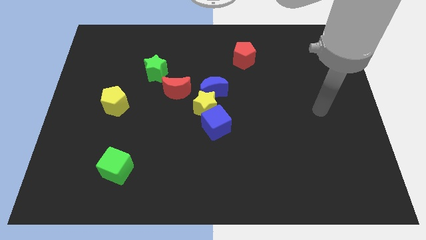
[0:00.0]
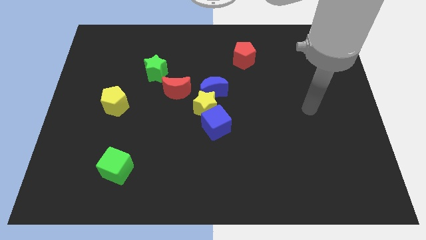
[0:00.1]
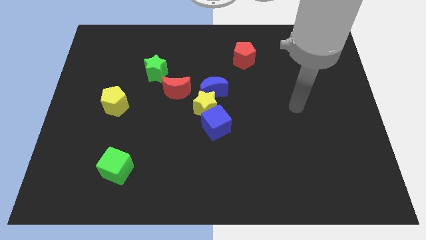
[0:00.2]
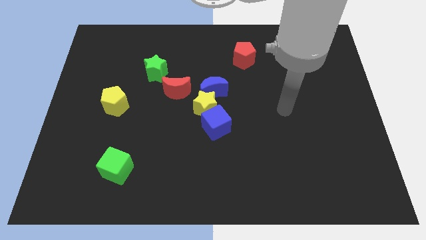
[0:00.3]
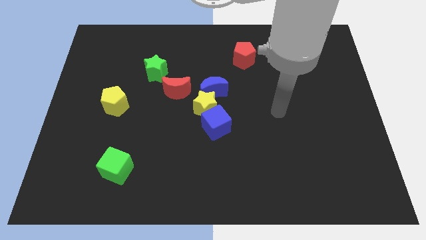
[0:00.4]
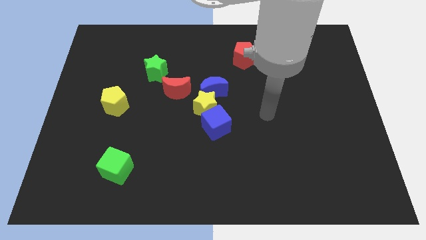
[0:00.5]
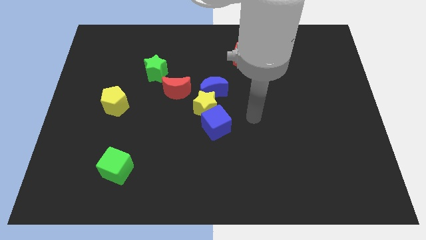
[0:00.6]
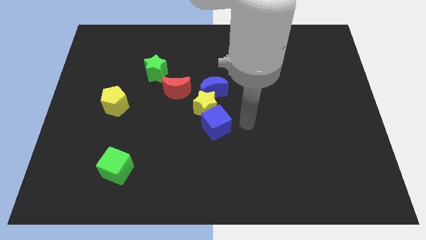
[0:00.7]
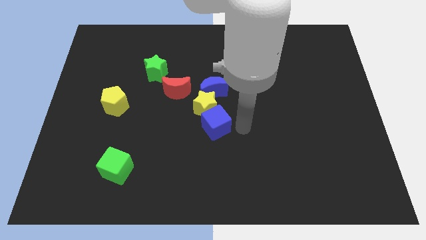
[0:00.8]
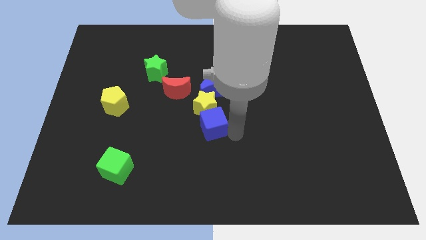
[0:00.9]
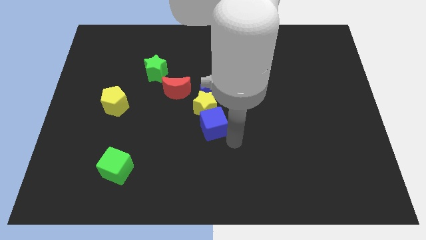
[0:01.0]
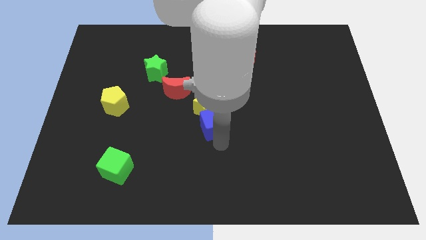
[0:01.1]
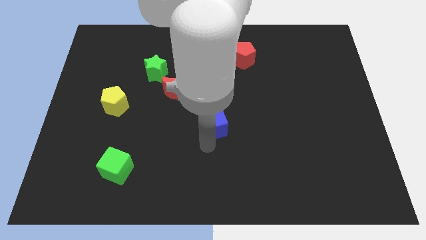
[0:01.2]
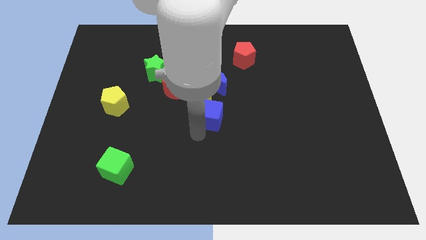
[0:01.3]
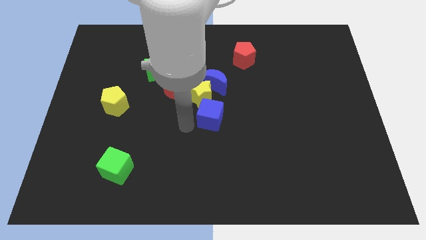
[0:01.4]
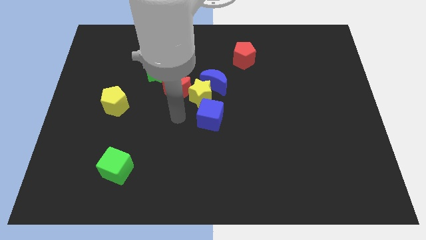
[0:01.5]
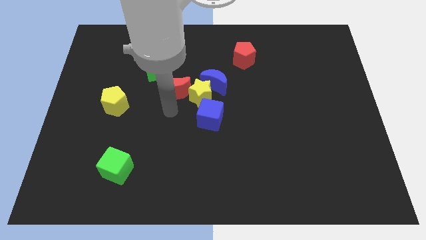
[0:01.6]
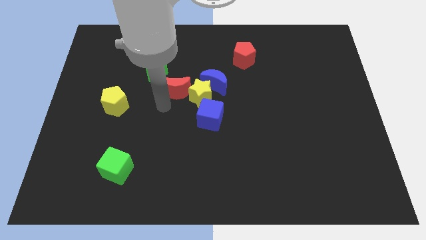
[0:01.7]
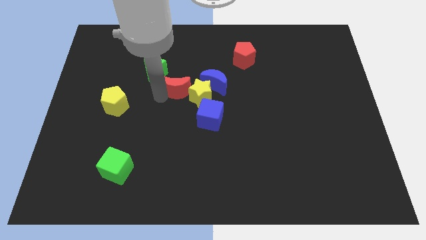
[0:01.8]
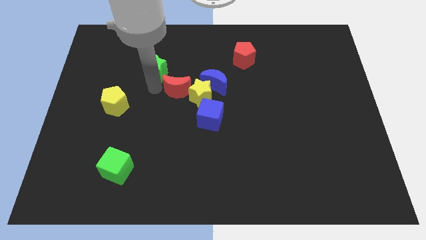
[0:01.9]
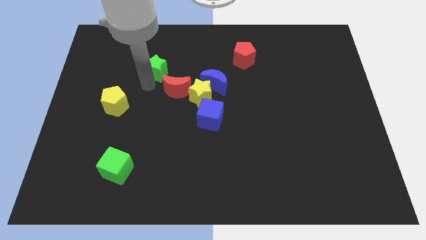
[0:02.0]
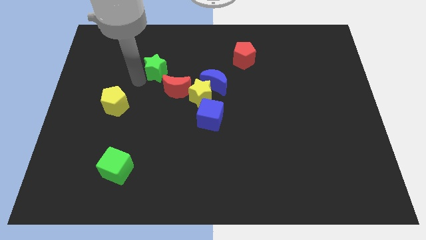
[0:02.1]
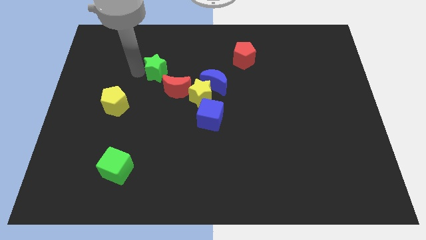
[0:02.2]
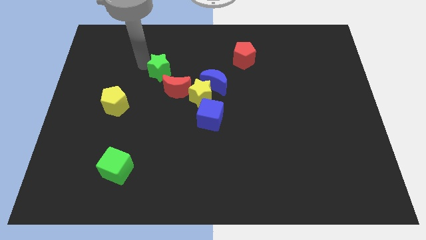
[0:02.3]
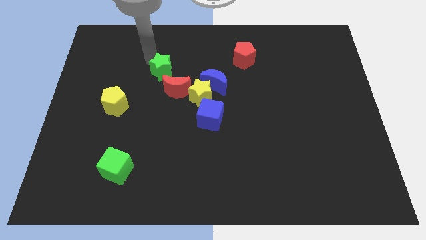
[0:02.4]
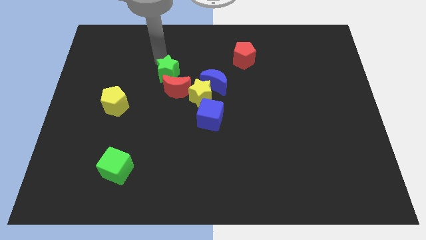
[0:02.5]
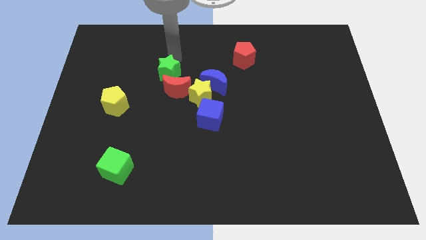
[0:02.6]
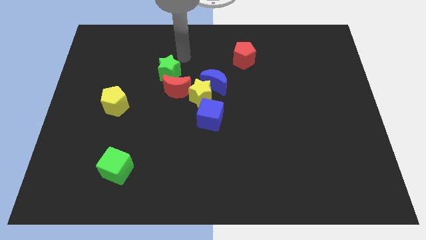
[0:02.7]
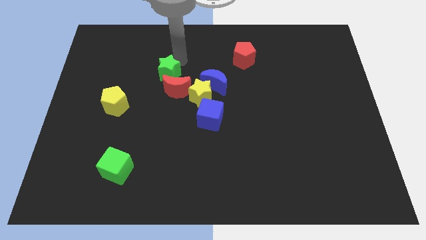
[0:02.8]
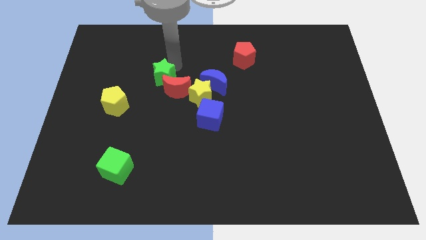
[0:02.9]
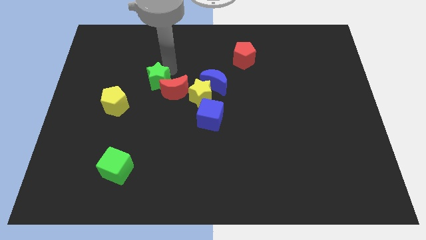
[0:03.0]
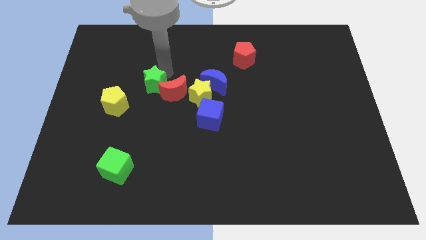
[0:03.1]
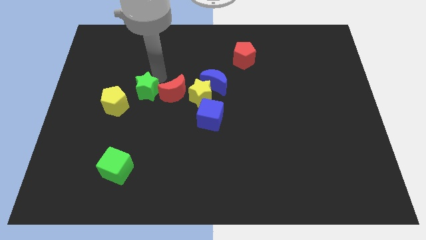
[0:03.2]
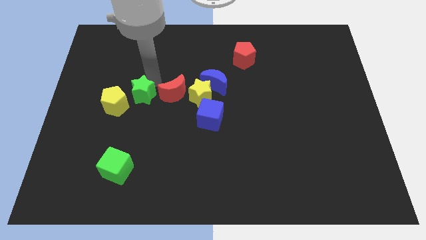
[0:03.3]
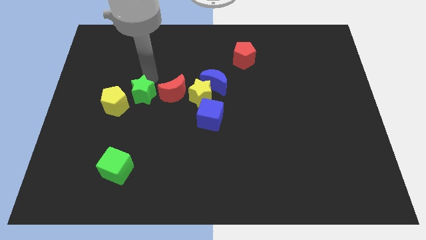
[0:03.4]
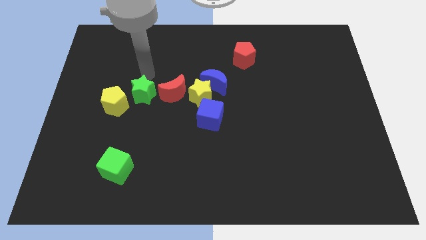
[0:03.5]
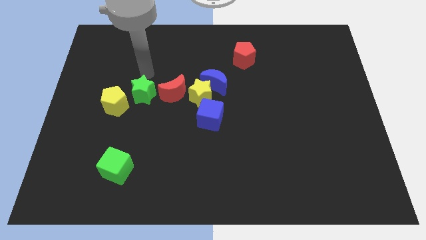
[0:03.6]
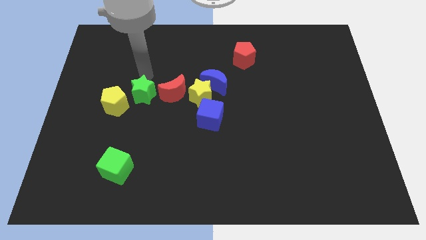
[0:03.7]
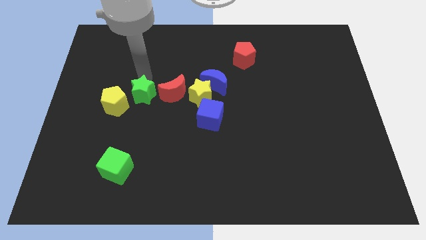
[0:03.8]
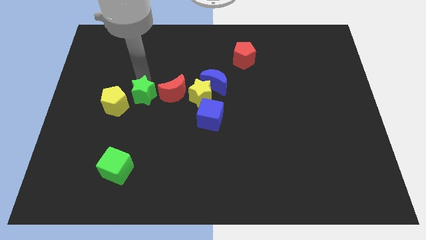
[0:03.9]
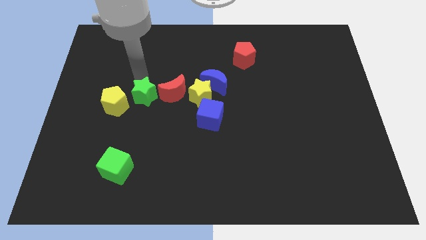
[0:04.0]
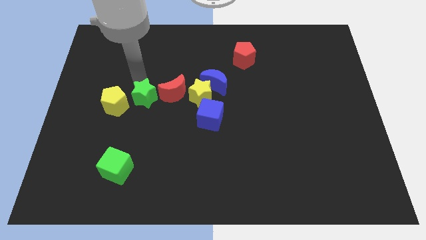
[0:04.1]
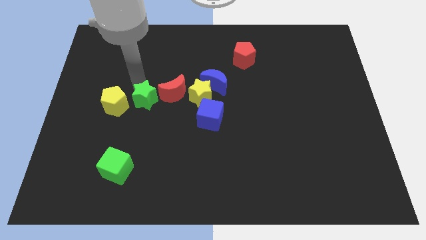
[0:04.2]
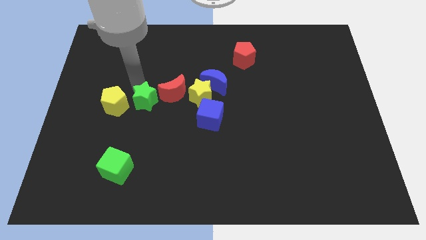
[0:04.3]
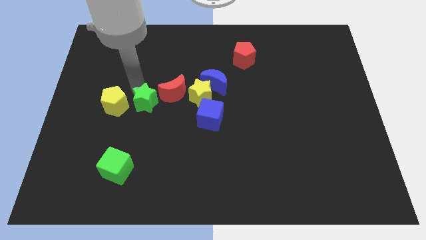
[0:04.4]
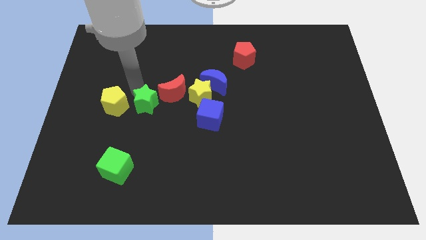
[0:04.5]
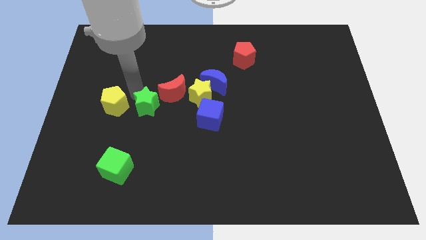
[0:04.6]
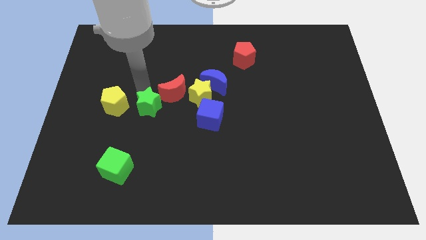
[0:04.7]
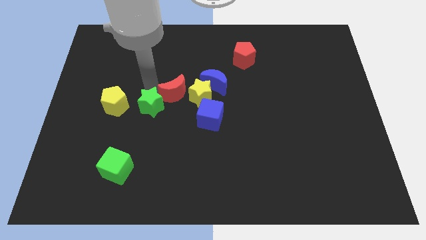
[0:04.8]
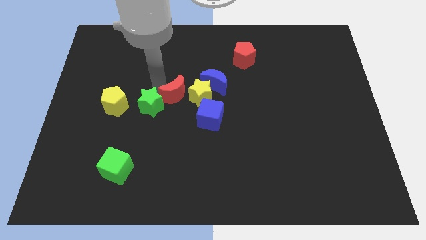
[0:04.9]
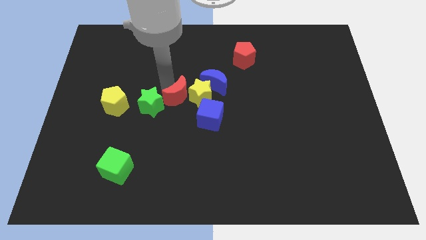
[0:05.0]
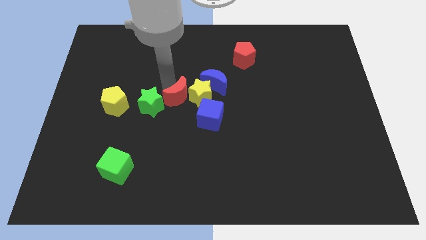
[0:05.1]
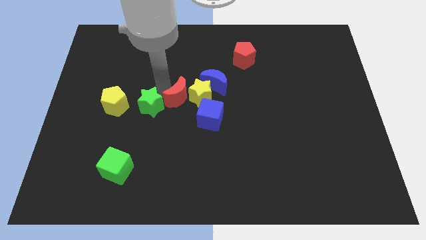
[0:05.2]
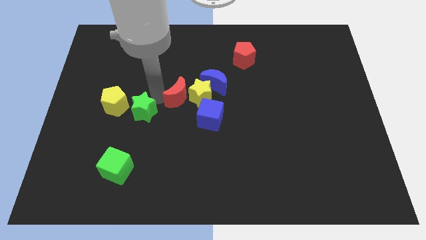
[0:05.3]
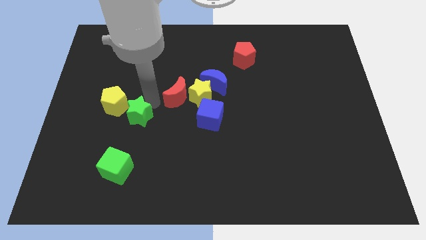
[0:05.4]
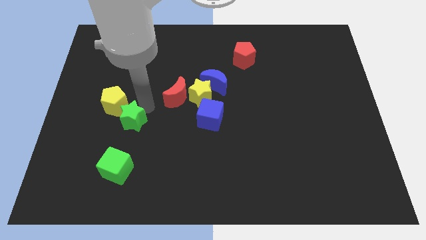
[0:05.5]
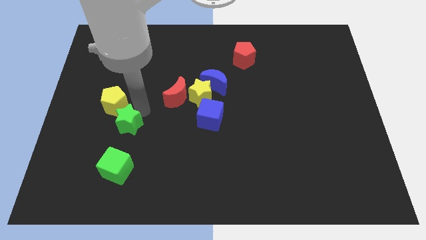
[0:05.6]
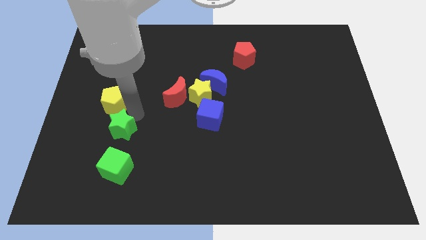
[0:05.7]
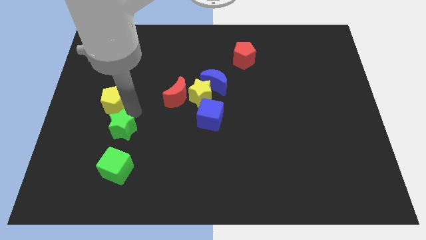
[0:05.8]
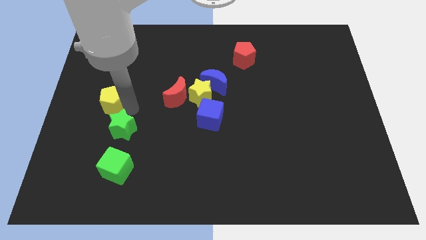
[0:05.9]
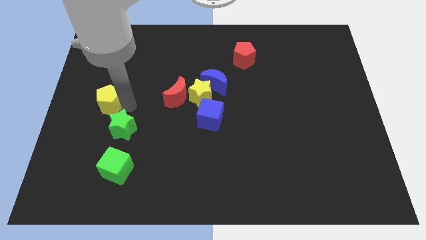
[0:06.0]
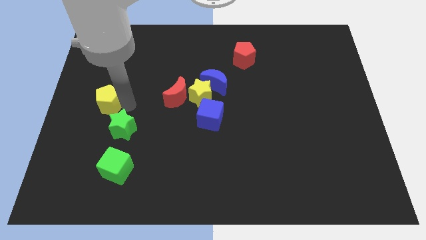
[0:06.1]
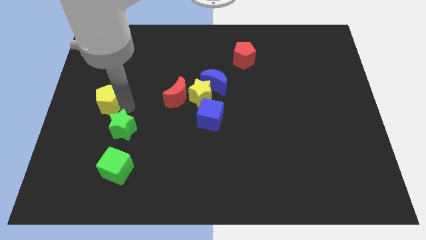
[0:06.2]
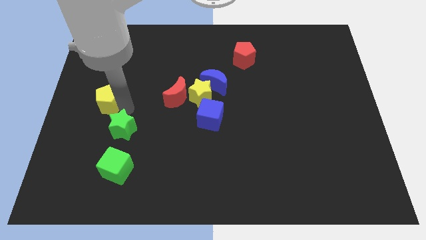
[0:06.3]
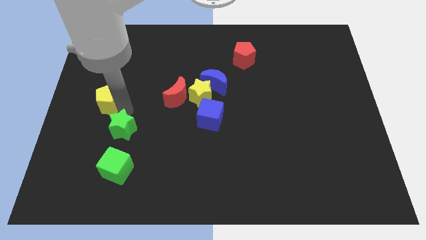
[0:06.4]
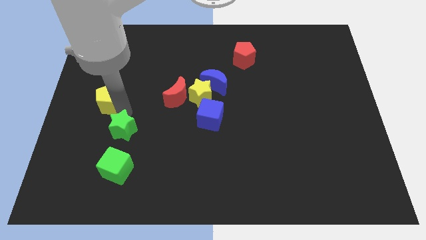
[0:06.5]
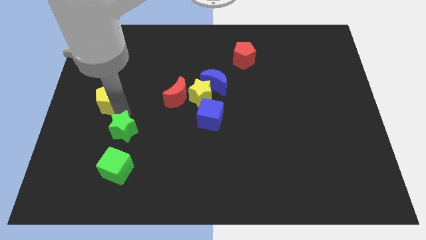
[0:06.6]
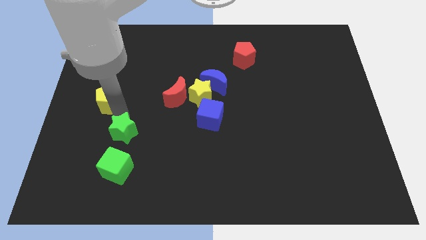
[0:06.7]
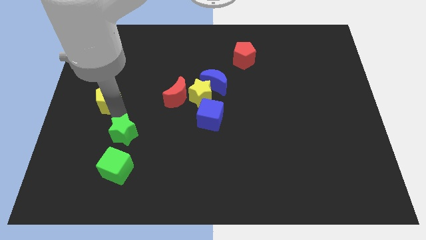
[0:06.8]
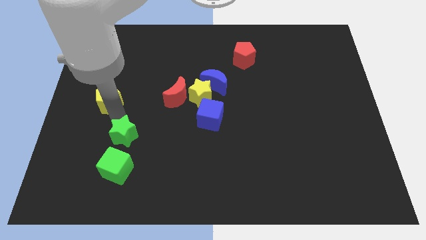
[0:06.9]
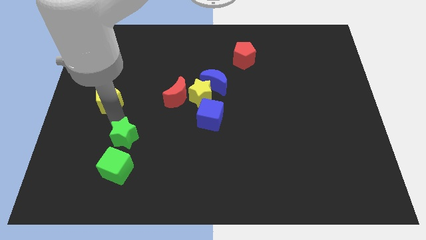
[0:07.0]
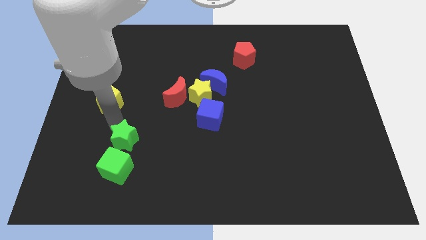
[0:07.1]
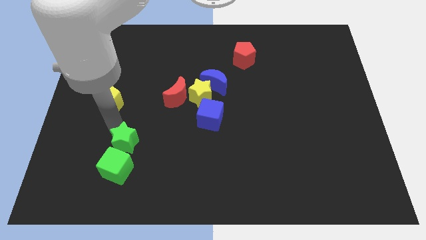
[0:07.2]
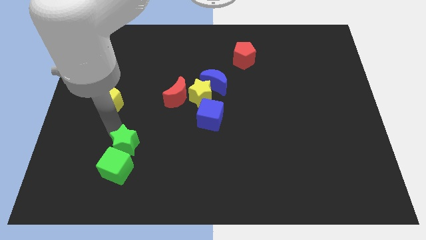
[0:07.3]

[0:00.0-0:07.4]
slide the green star close to the green cube
